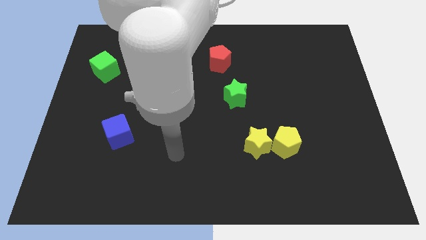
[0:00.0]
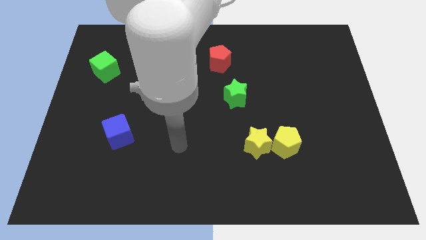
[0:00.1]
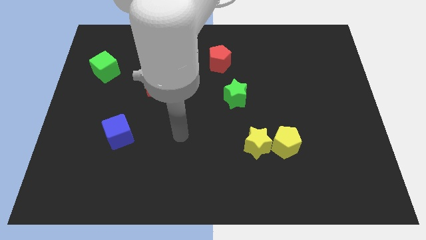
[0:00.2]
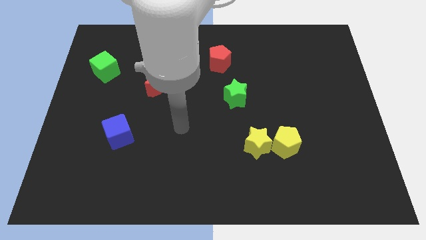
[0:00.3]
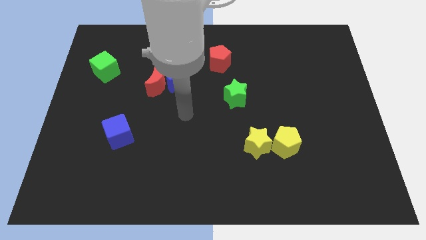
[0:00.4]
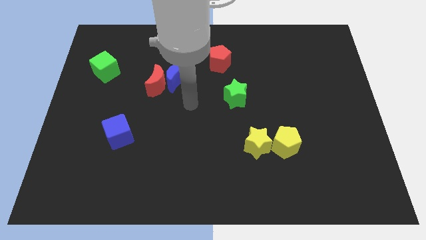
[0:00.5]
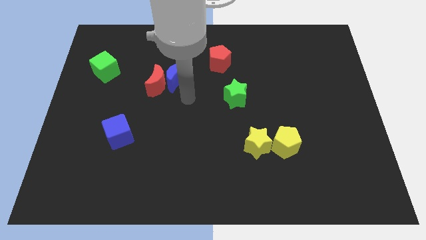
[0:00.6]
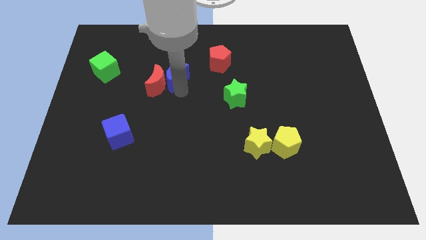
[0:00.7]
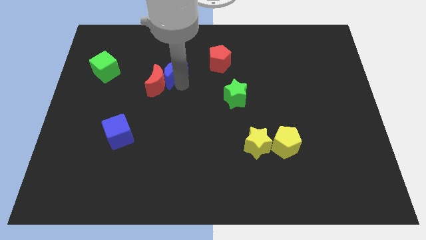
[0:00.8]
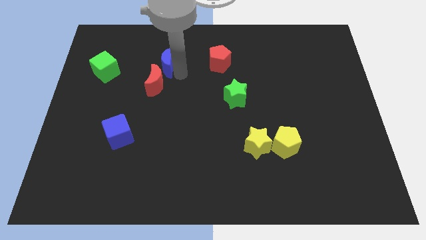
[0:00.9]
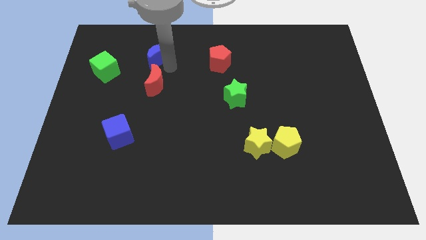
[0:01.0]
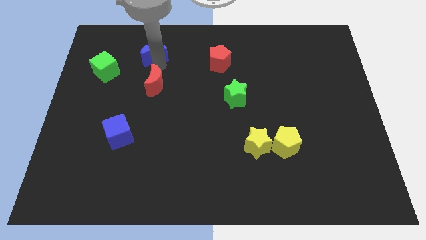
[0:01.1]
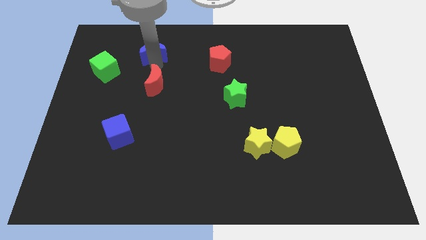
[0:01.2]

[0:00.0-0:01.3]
move the red moon away from the blue moon

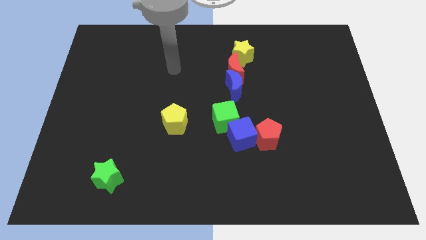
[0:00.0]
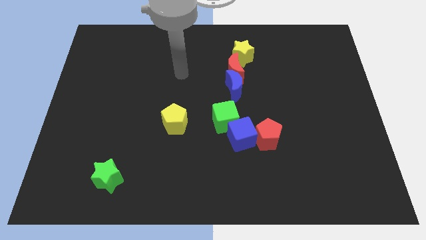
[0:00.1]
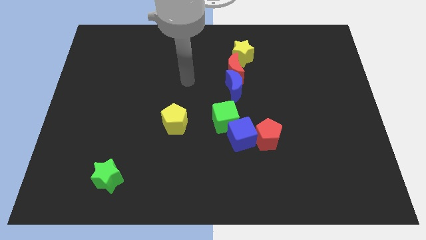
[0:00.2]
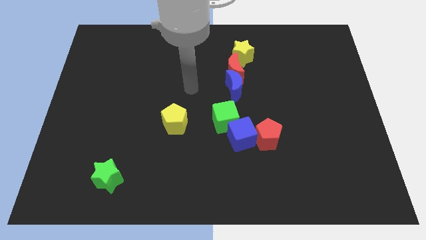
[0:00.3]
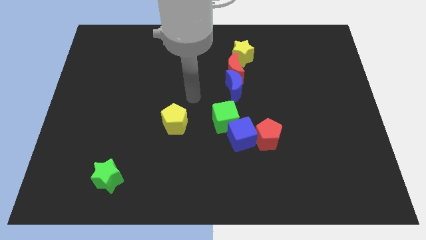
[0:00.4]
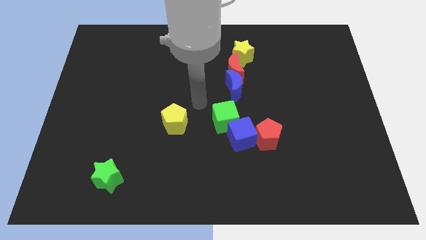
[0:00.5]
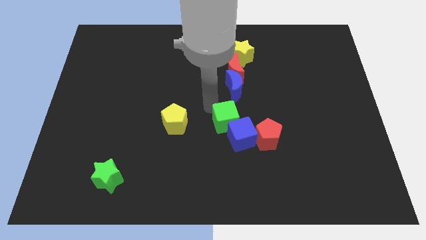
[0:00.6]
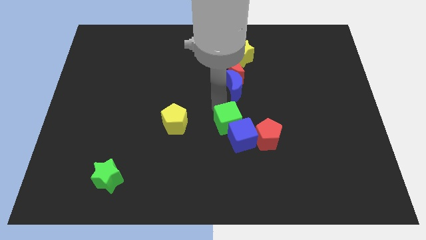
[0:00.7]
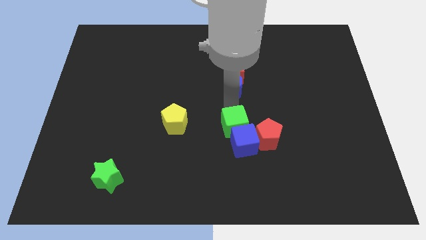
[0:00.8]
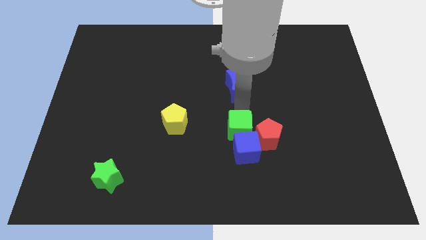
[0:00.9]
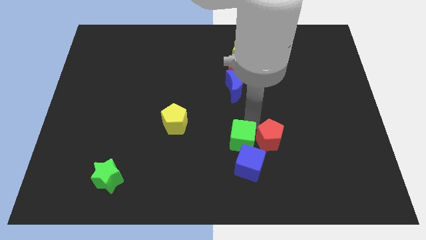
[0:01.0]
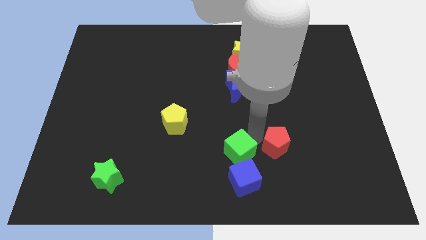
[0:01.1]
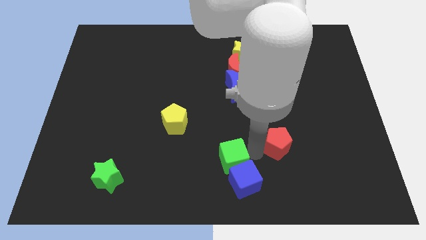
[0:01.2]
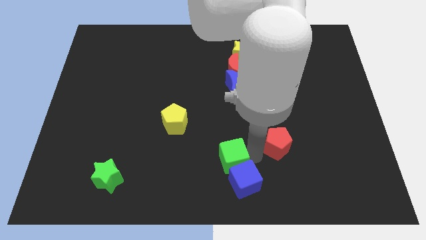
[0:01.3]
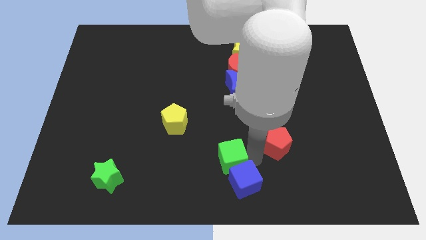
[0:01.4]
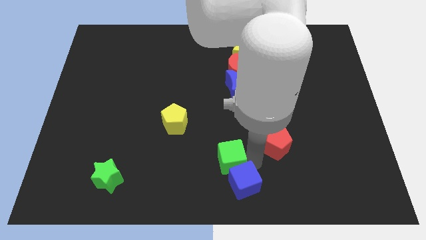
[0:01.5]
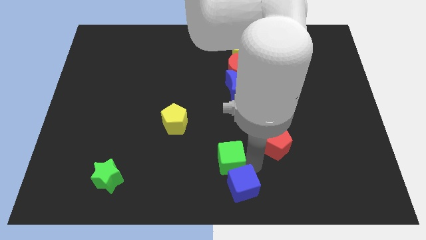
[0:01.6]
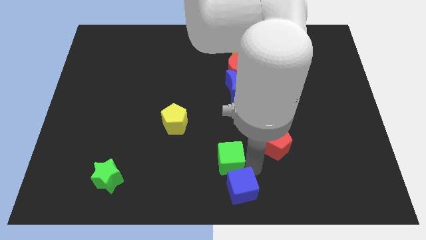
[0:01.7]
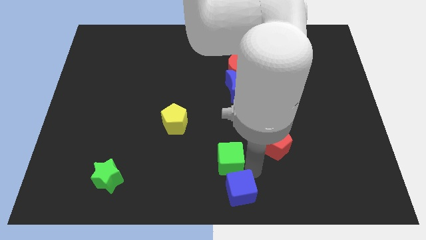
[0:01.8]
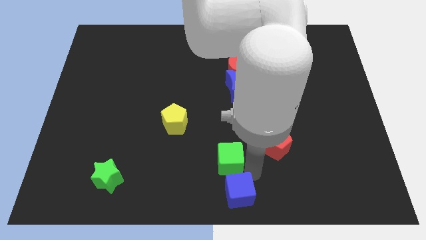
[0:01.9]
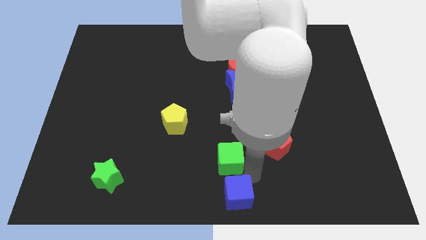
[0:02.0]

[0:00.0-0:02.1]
pull the blue cube apart from the red pentagon and green cube

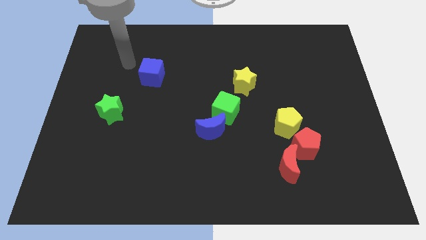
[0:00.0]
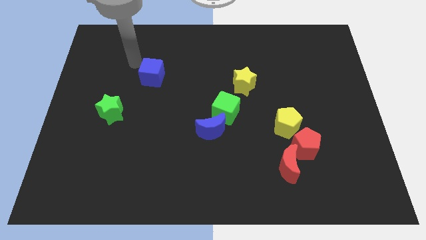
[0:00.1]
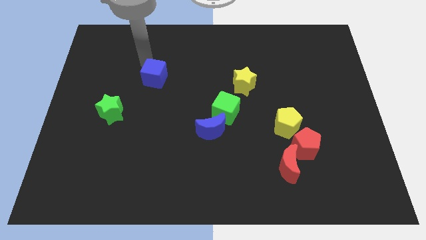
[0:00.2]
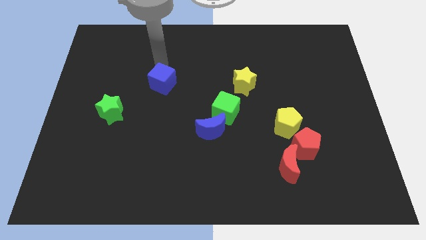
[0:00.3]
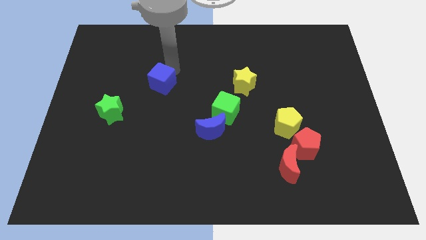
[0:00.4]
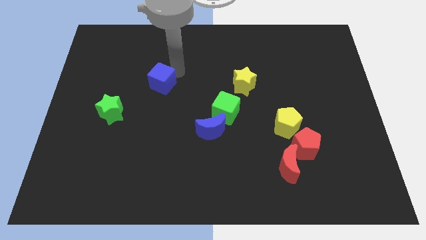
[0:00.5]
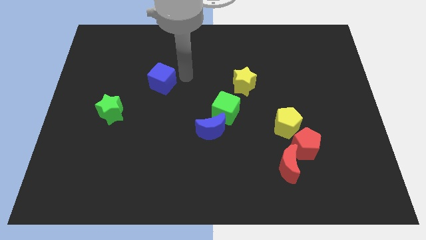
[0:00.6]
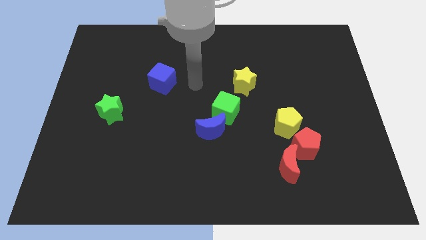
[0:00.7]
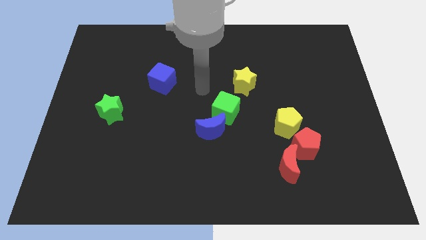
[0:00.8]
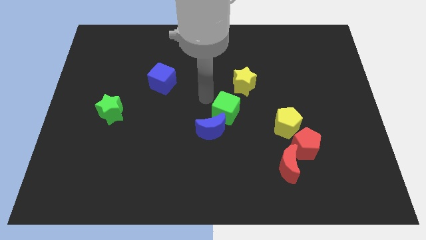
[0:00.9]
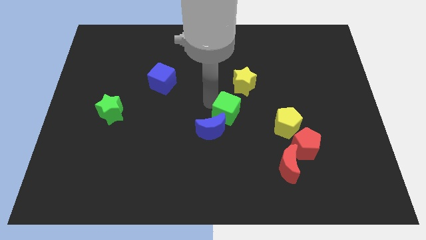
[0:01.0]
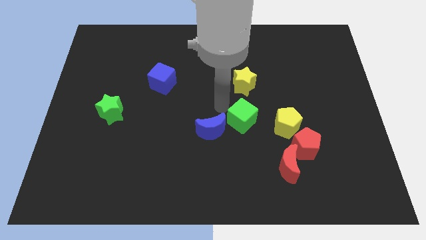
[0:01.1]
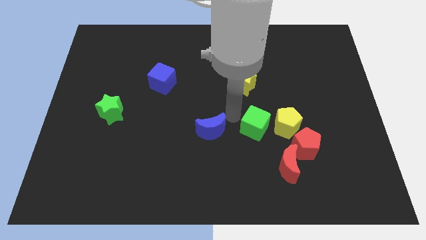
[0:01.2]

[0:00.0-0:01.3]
pull the blue moon apart from the green cube

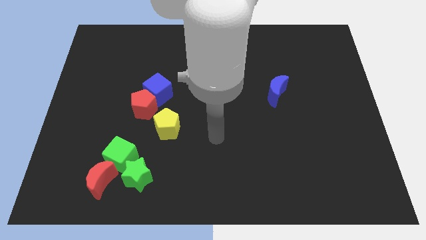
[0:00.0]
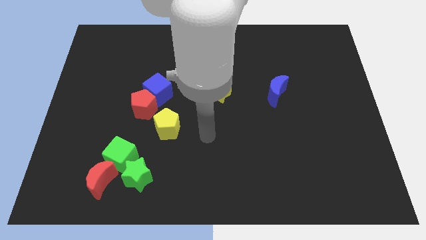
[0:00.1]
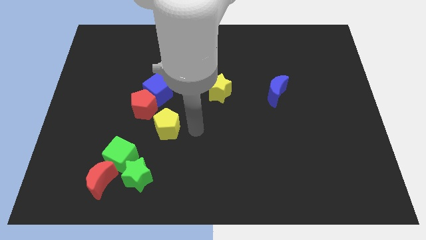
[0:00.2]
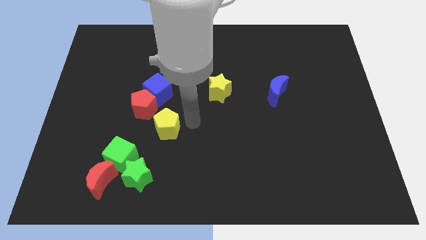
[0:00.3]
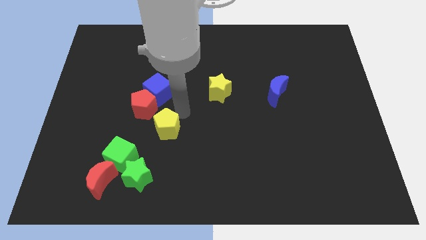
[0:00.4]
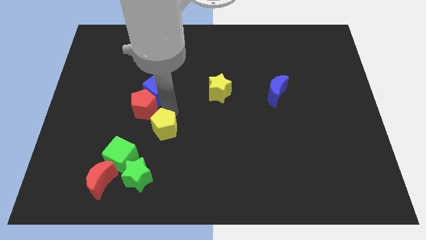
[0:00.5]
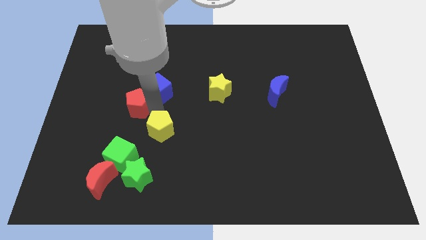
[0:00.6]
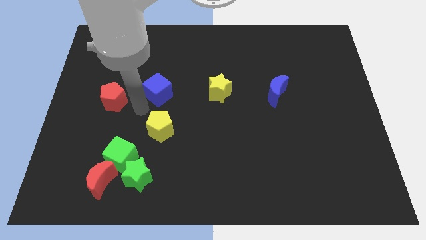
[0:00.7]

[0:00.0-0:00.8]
separate the blue cube from the red pentagon

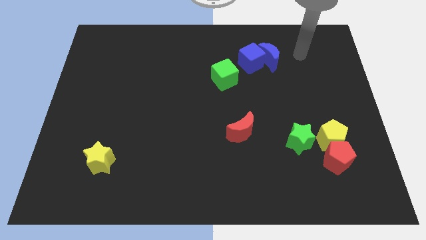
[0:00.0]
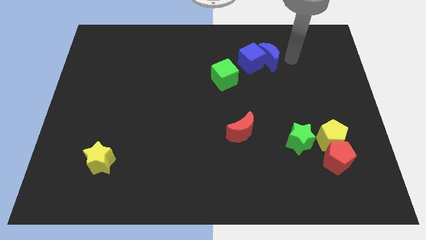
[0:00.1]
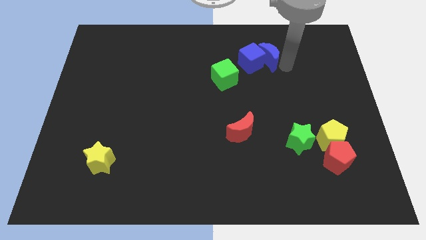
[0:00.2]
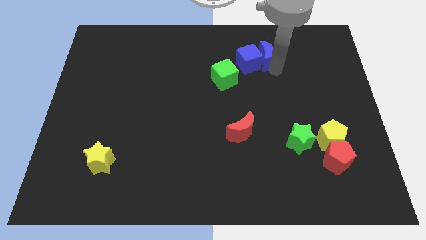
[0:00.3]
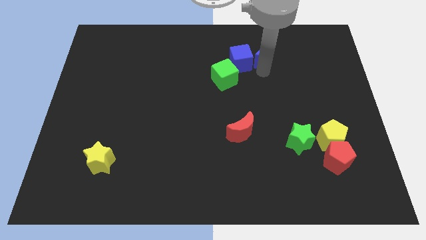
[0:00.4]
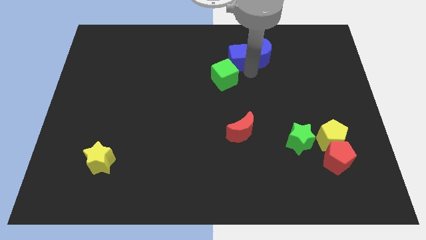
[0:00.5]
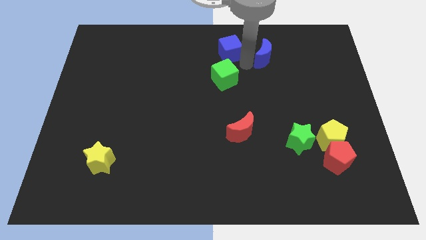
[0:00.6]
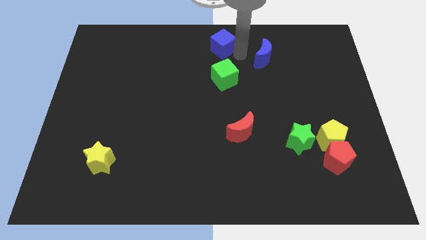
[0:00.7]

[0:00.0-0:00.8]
pull the blue moon apart from the blue cube

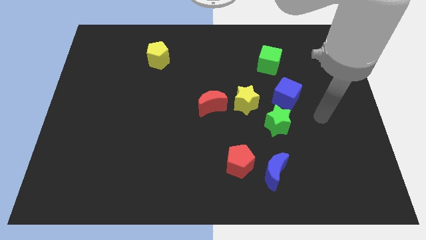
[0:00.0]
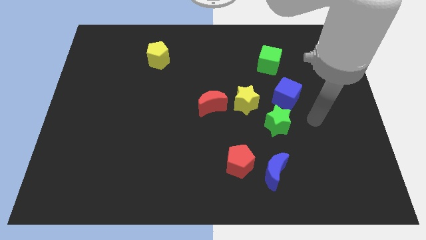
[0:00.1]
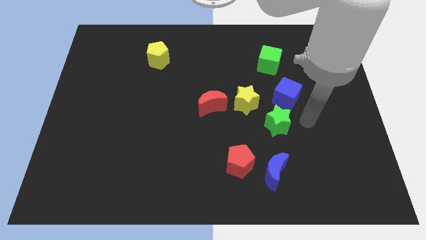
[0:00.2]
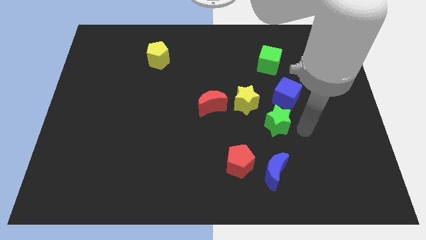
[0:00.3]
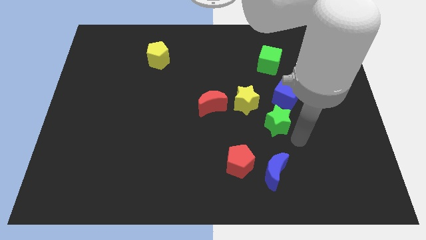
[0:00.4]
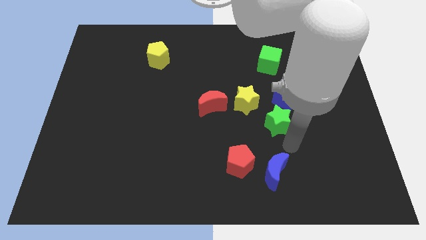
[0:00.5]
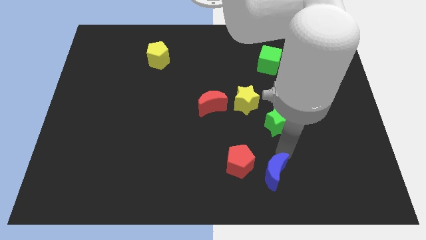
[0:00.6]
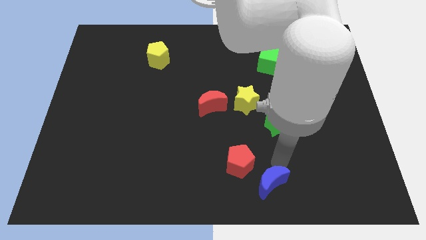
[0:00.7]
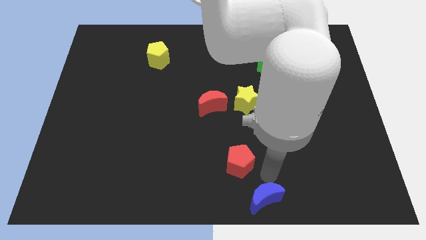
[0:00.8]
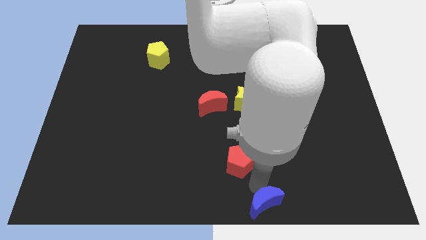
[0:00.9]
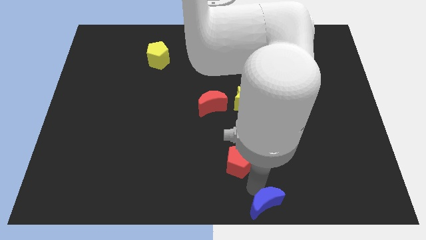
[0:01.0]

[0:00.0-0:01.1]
separate the red pentagon from the blue moon

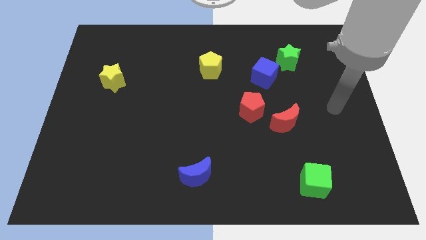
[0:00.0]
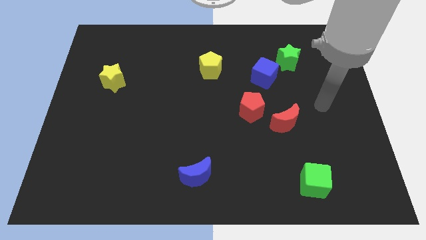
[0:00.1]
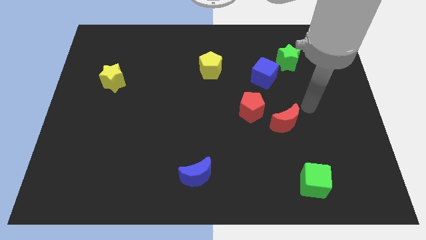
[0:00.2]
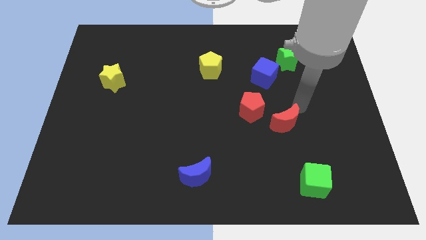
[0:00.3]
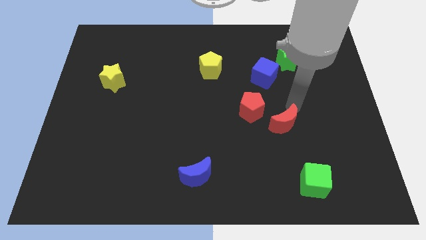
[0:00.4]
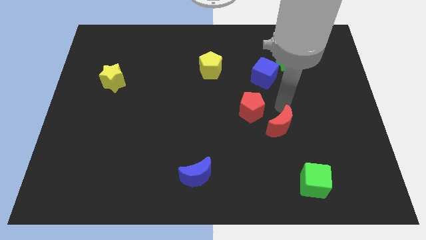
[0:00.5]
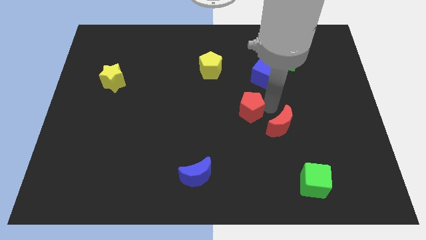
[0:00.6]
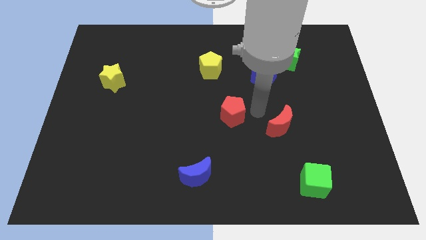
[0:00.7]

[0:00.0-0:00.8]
separate the red moon from the red pentagon

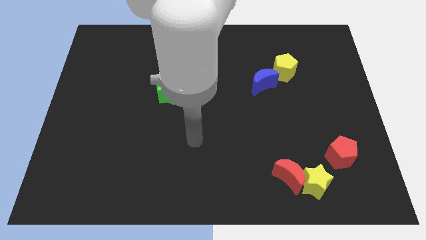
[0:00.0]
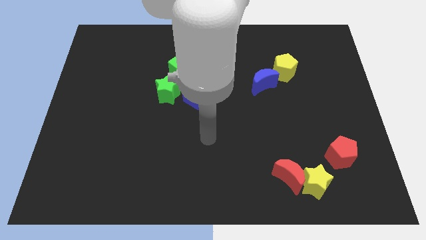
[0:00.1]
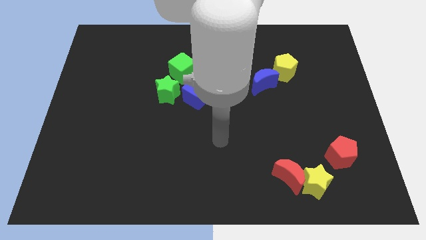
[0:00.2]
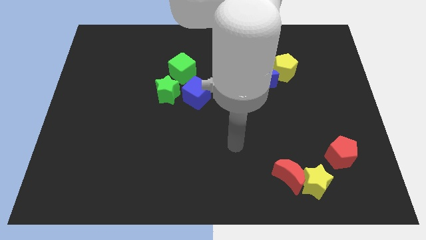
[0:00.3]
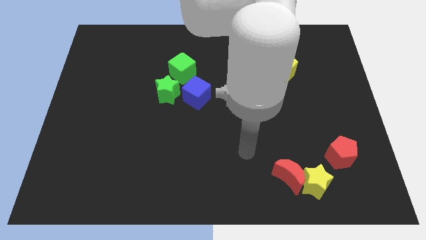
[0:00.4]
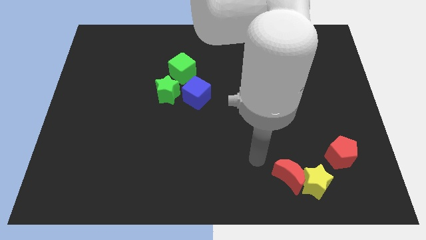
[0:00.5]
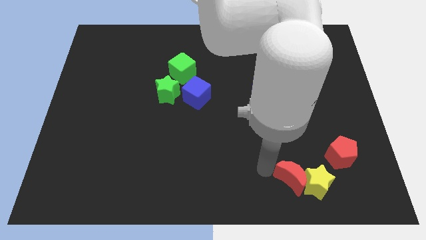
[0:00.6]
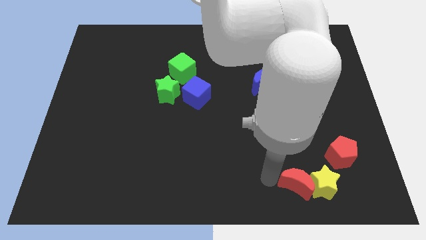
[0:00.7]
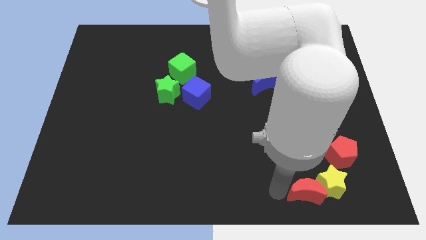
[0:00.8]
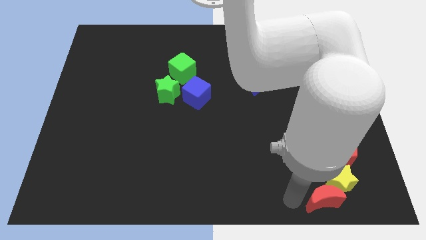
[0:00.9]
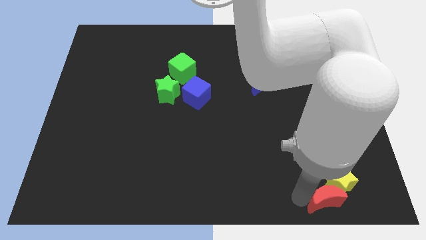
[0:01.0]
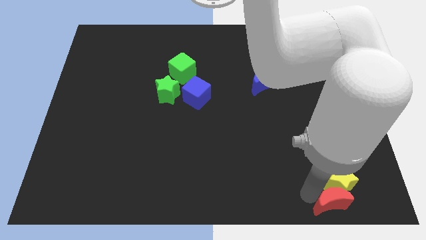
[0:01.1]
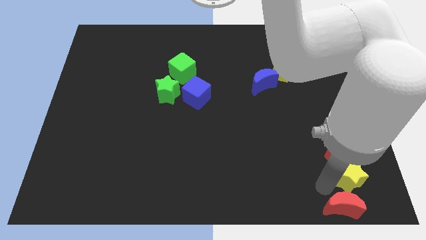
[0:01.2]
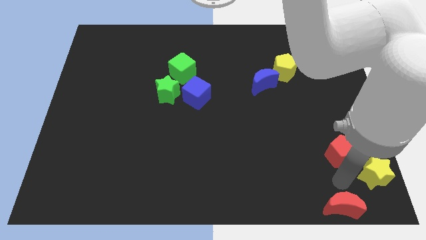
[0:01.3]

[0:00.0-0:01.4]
pull the red moon apart from the yellow star
